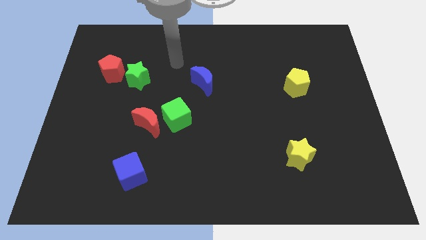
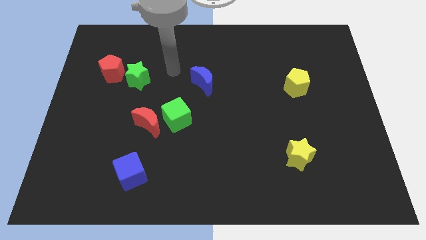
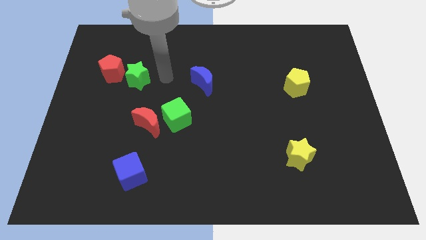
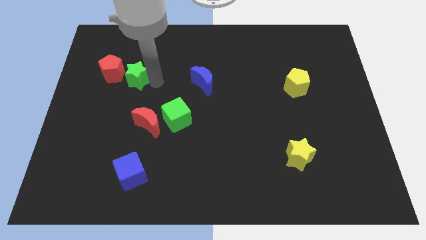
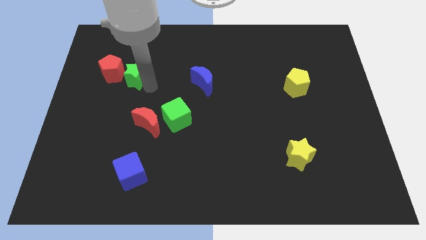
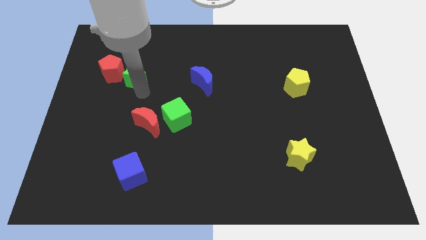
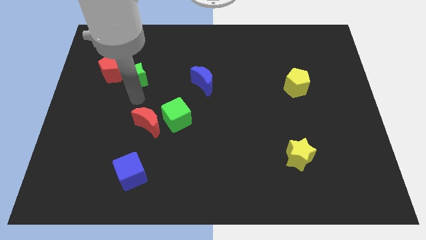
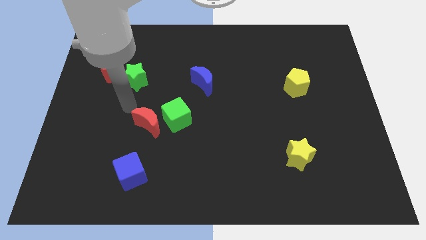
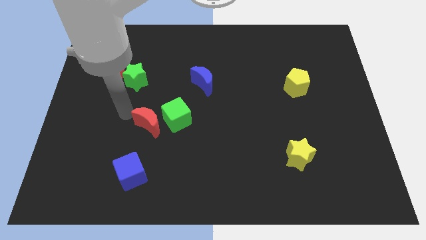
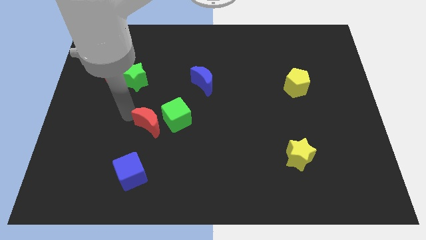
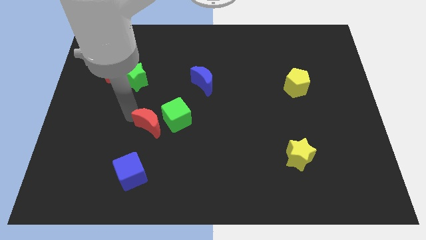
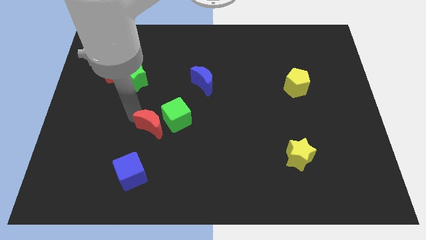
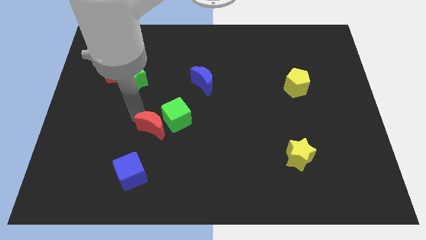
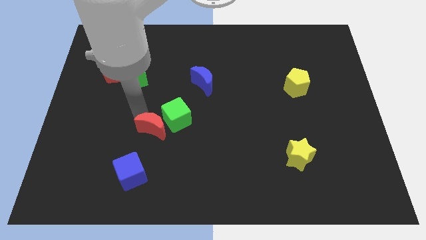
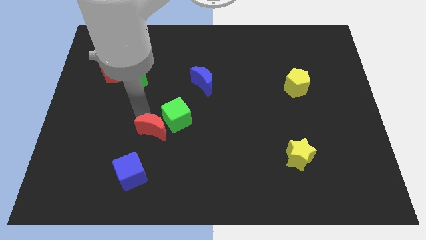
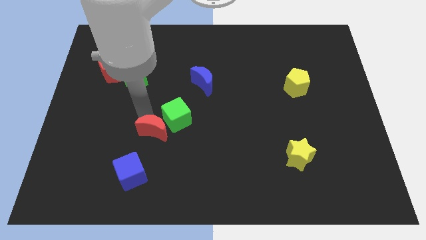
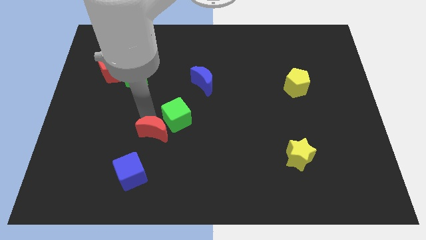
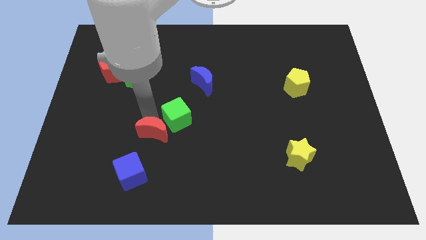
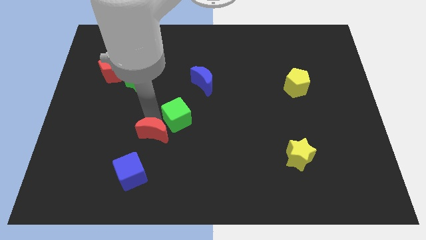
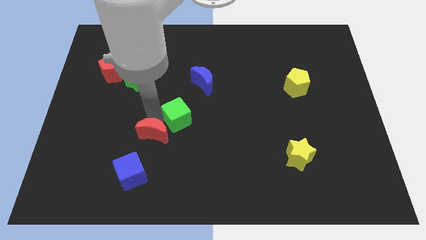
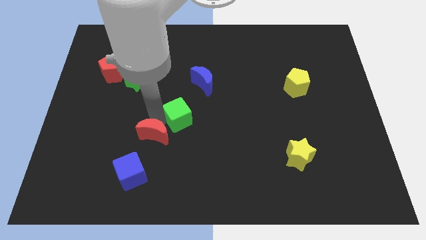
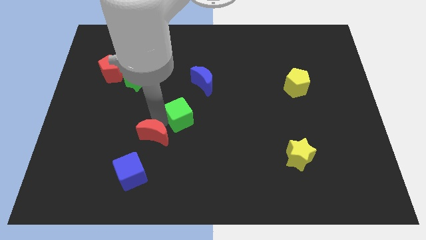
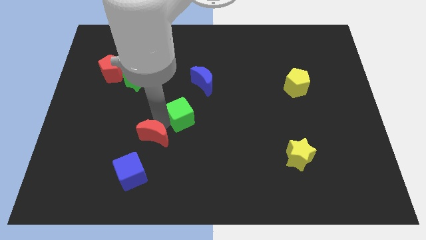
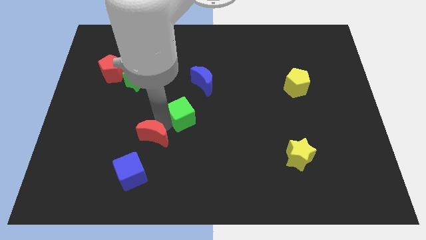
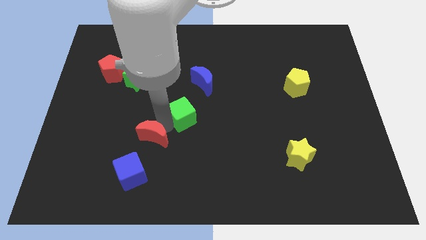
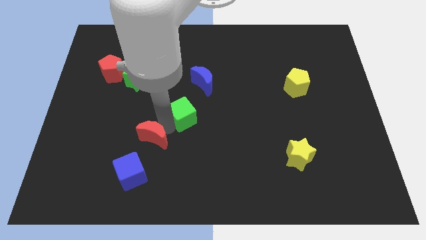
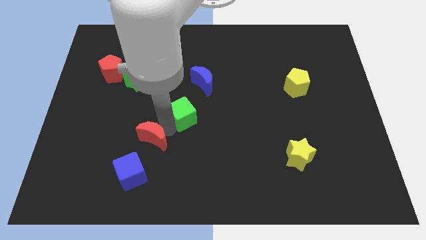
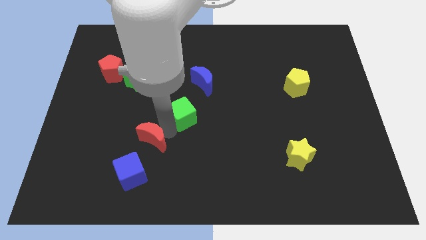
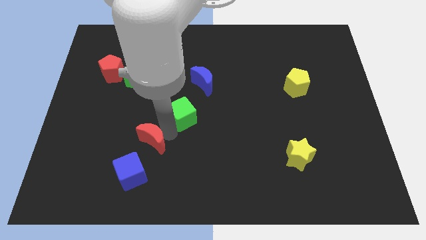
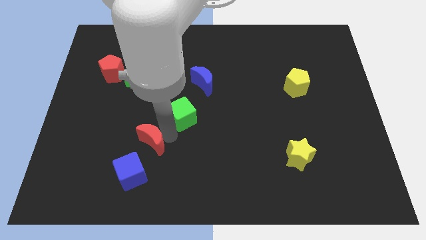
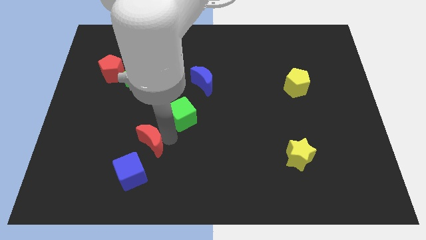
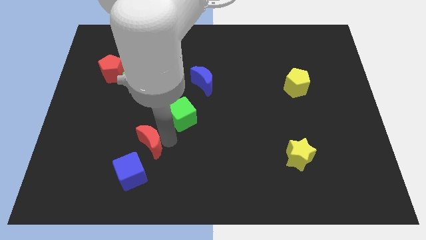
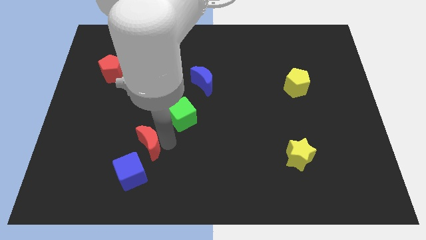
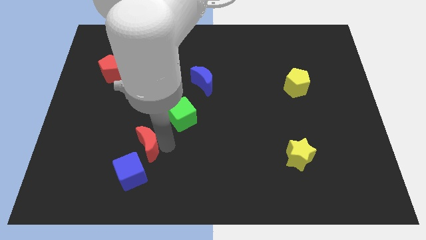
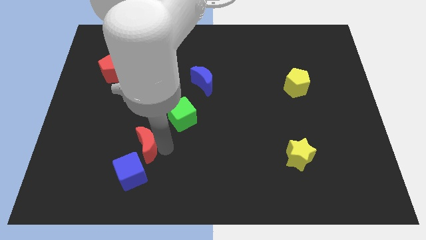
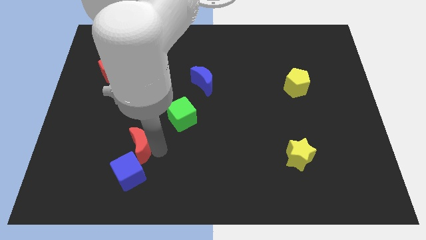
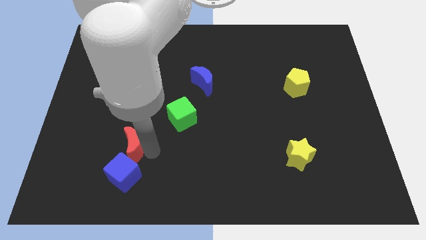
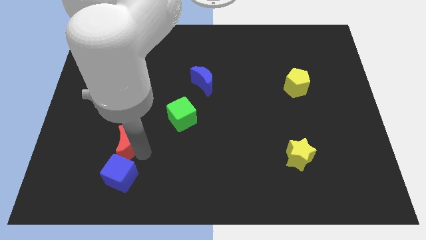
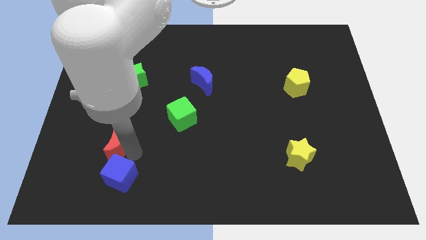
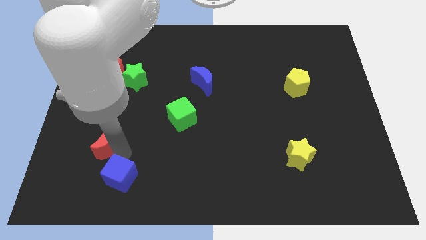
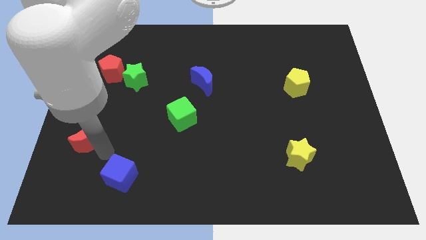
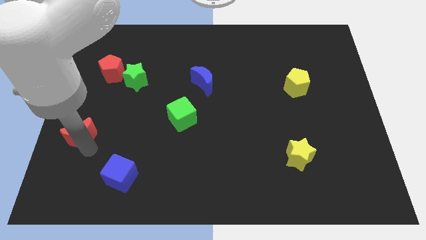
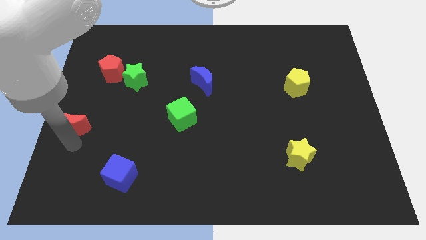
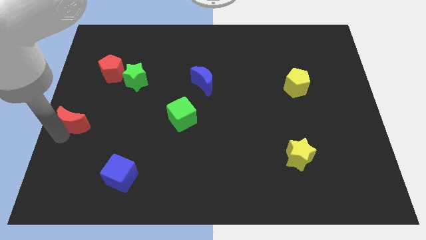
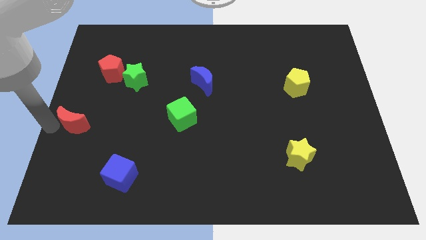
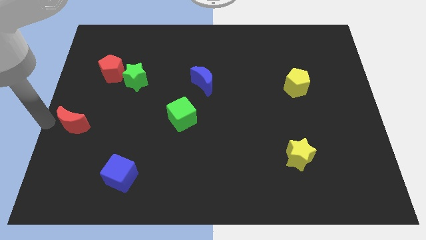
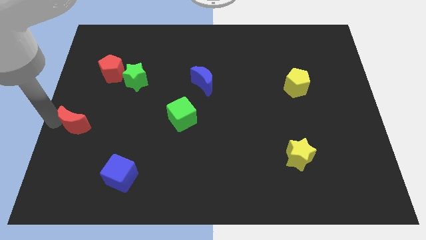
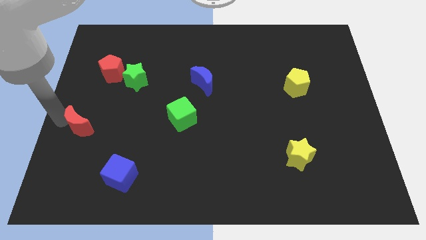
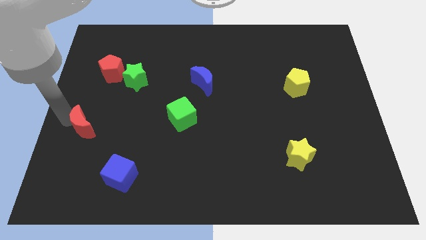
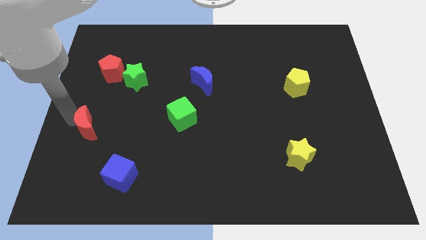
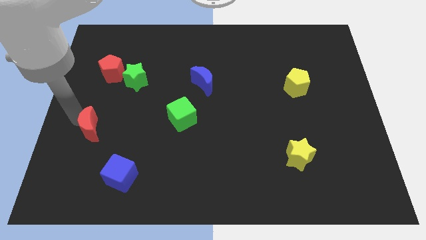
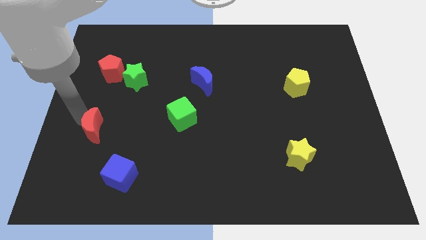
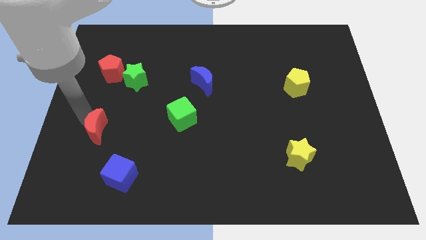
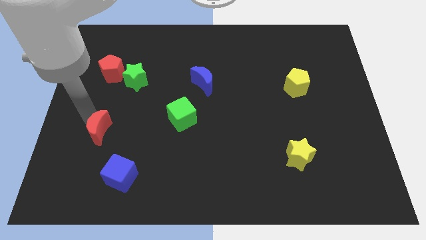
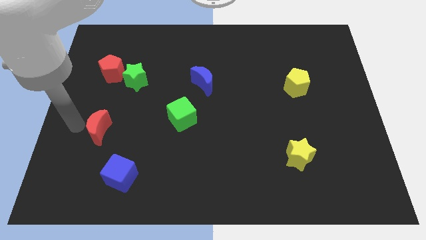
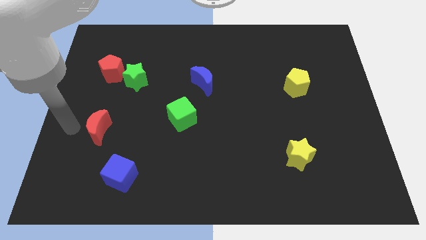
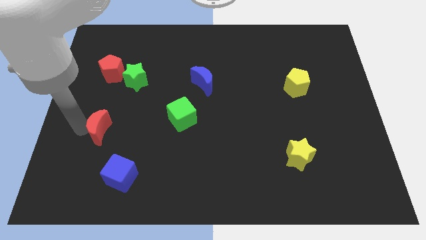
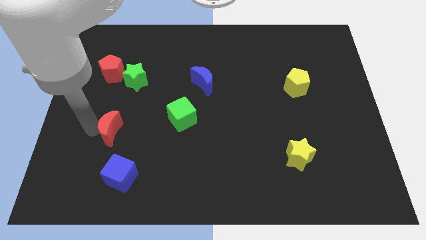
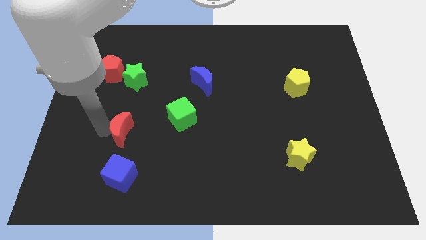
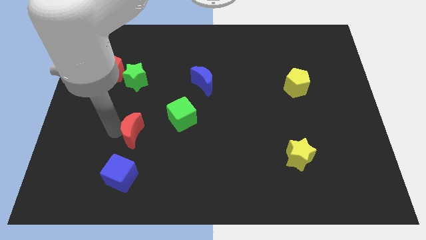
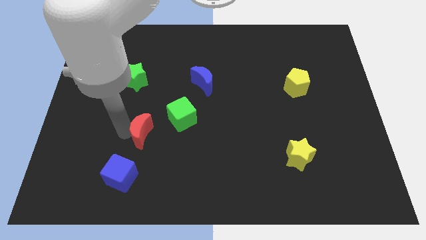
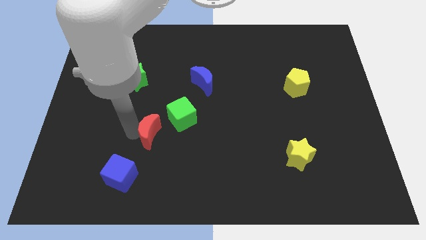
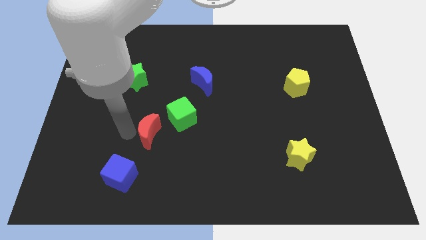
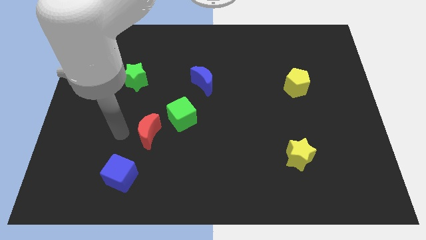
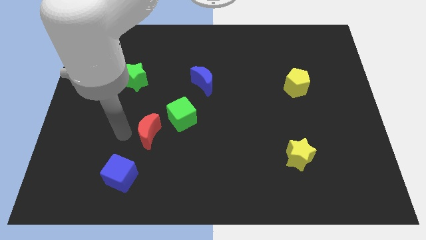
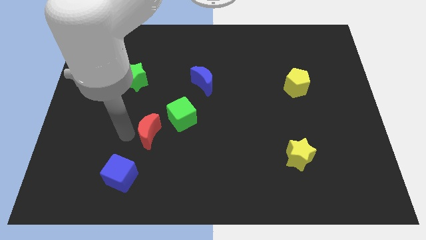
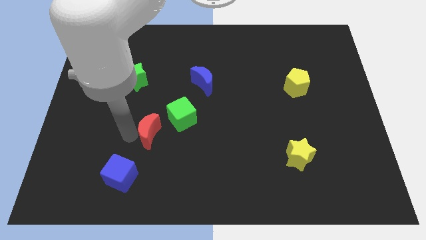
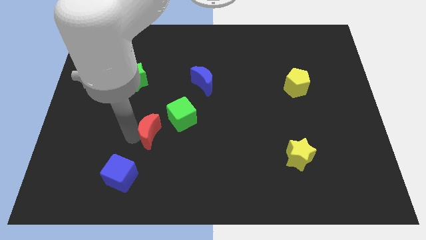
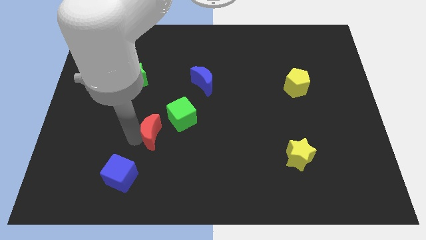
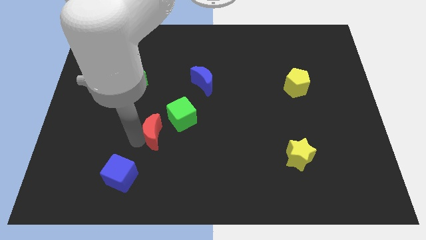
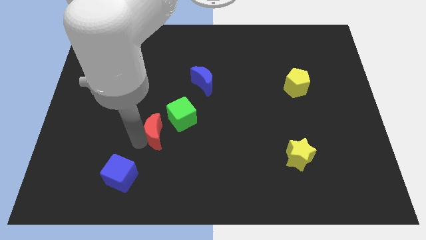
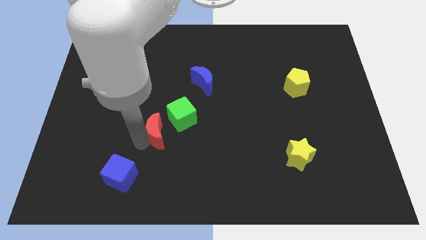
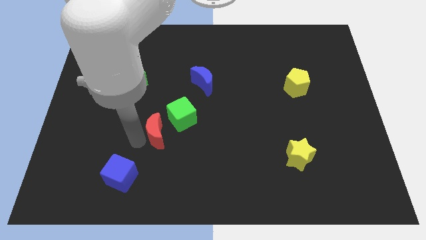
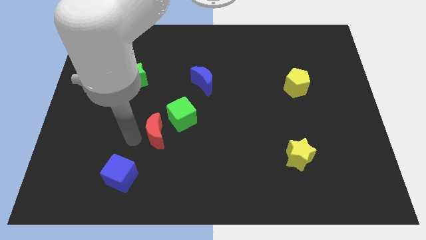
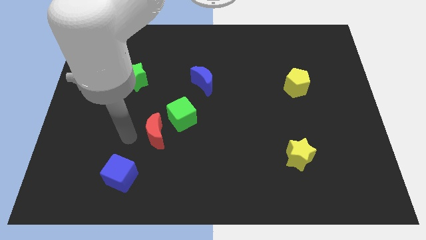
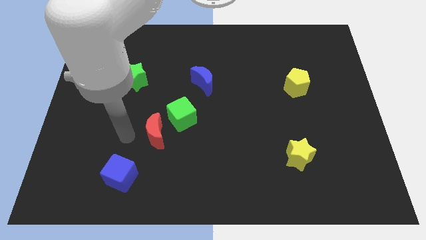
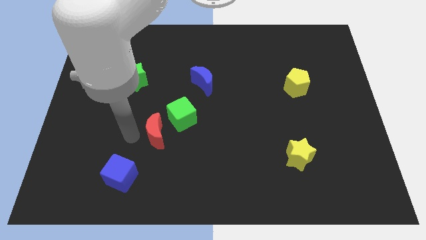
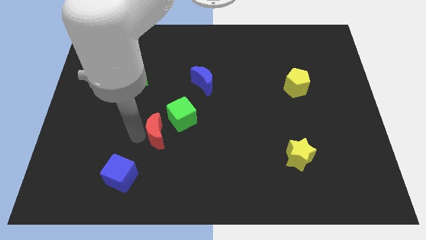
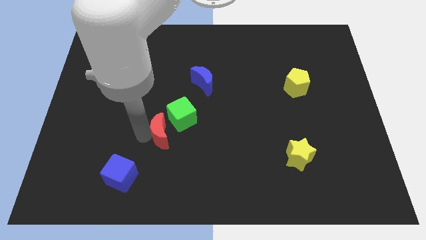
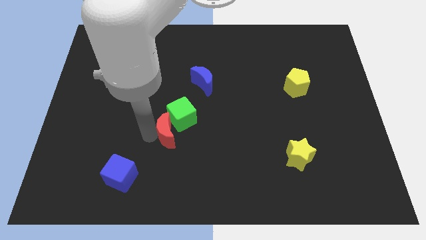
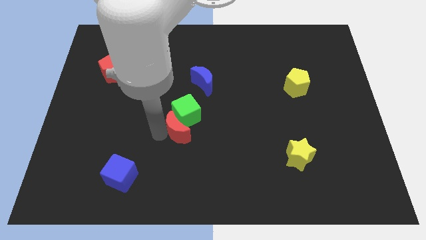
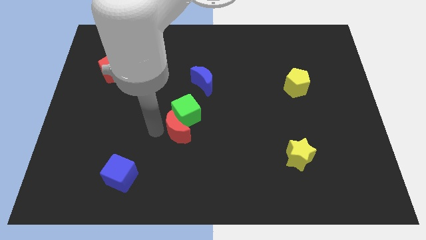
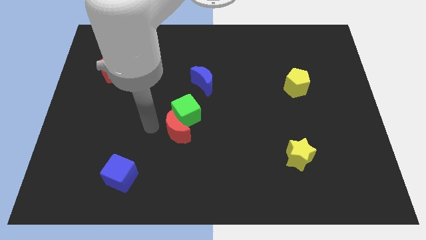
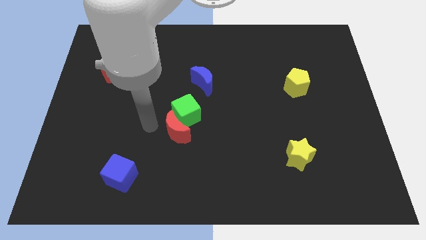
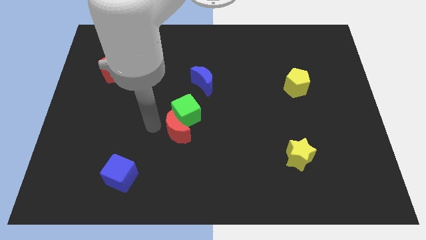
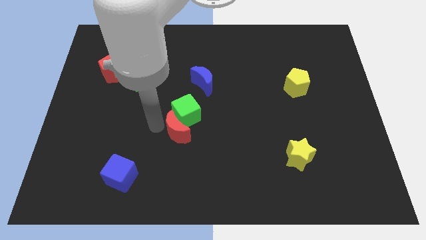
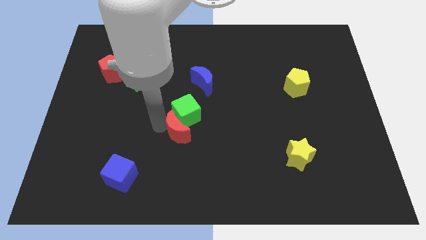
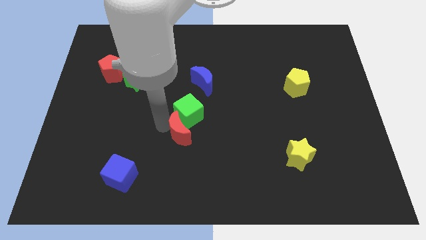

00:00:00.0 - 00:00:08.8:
slightly move the red moon to the right
